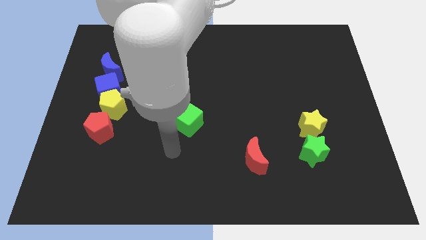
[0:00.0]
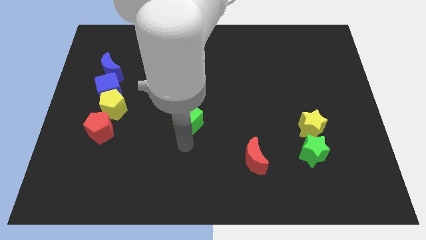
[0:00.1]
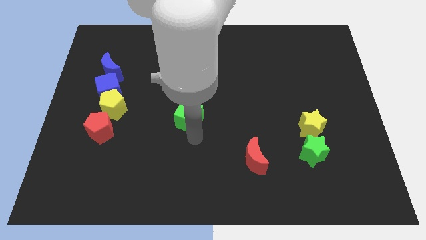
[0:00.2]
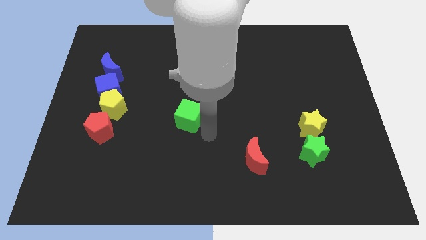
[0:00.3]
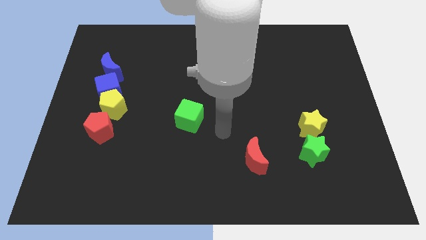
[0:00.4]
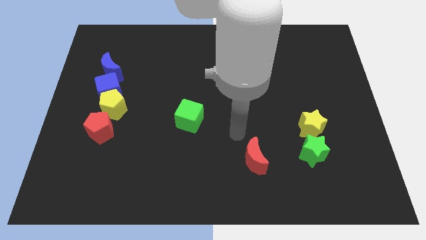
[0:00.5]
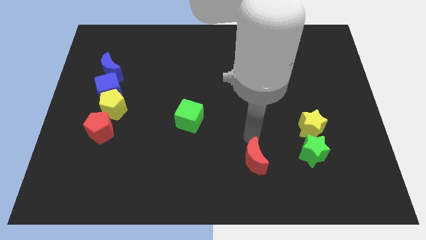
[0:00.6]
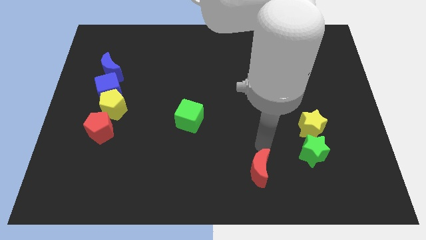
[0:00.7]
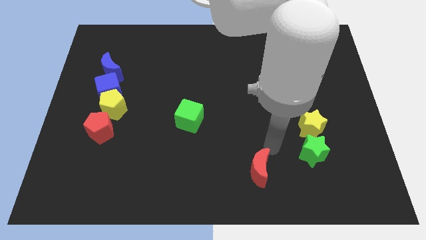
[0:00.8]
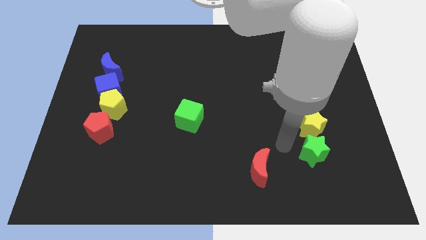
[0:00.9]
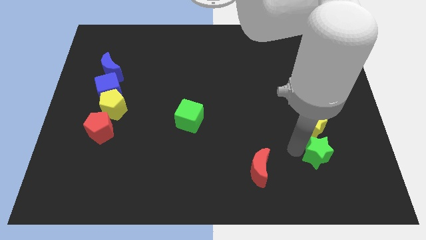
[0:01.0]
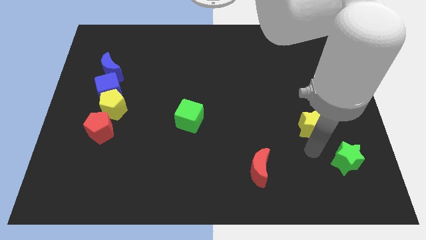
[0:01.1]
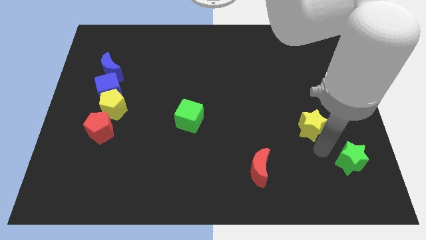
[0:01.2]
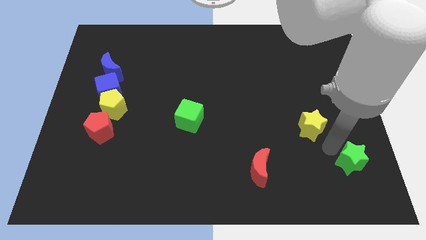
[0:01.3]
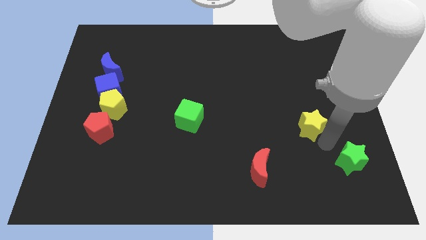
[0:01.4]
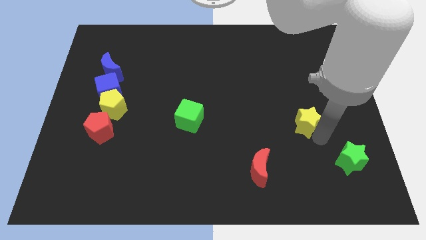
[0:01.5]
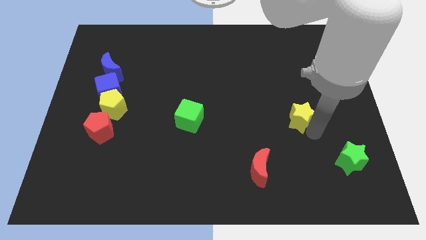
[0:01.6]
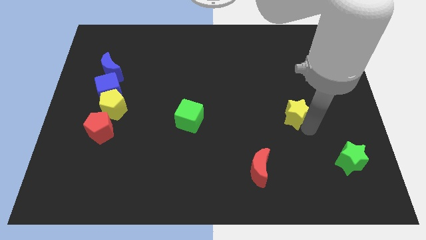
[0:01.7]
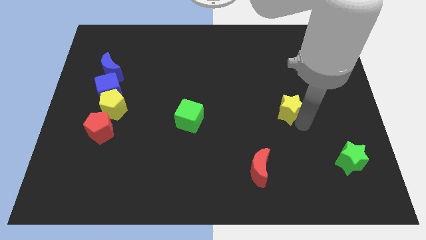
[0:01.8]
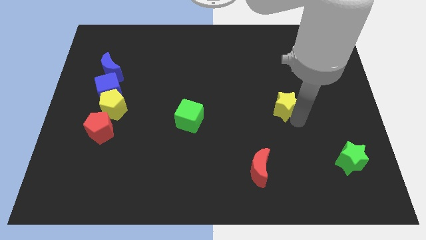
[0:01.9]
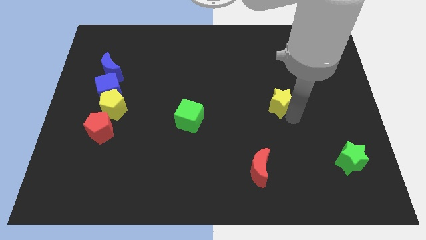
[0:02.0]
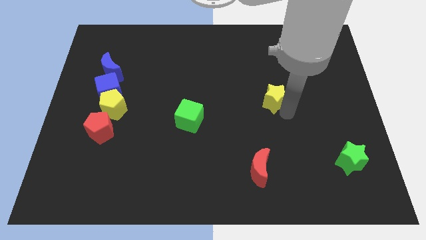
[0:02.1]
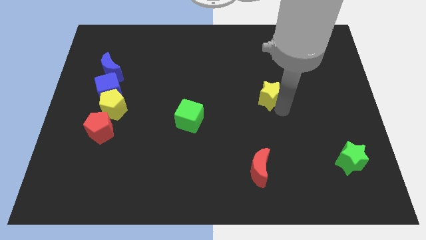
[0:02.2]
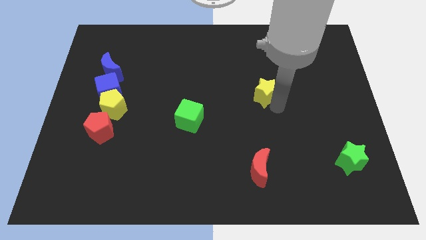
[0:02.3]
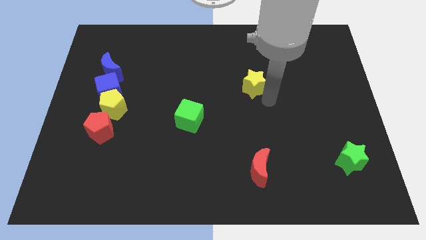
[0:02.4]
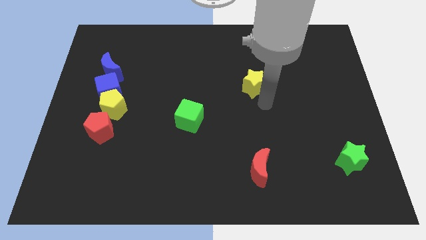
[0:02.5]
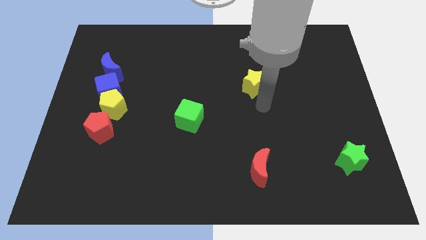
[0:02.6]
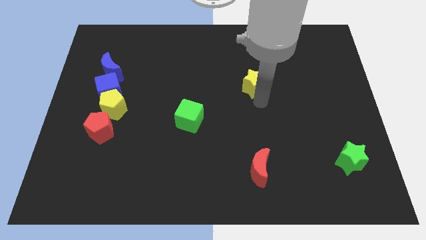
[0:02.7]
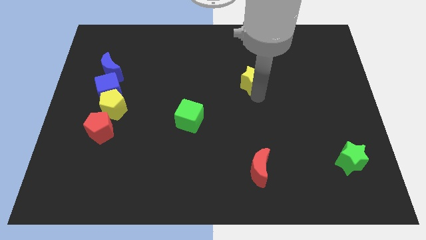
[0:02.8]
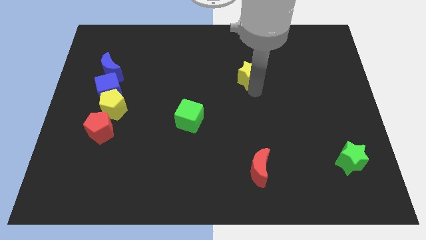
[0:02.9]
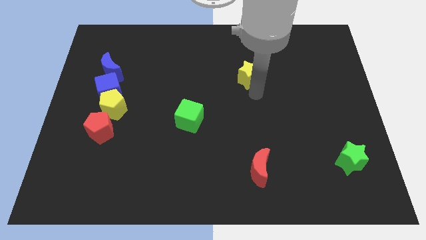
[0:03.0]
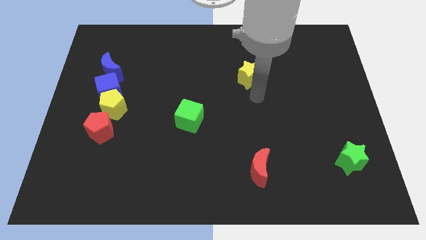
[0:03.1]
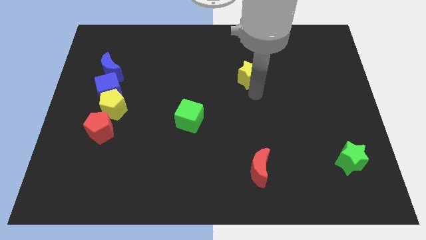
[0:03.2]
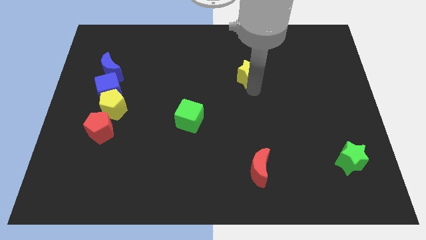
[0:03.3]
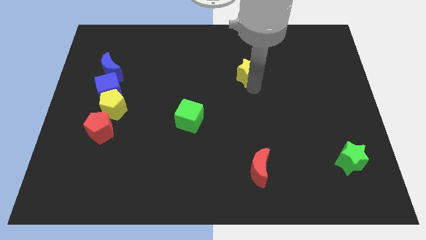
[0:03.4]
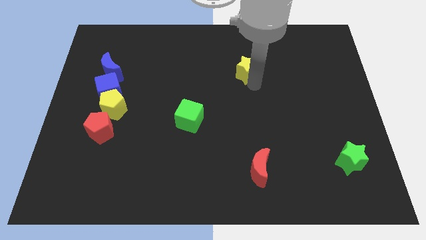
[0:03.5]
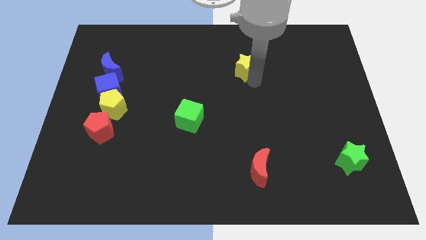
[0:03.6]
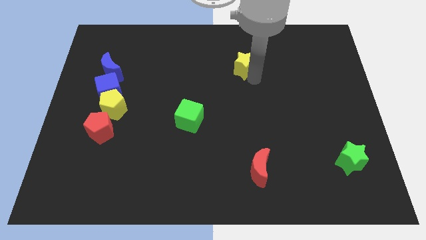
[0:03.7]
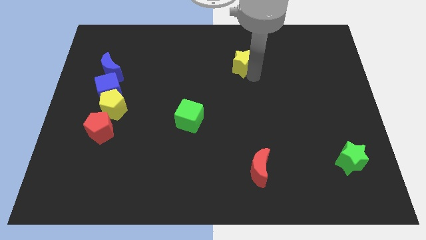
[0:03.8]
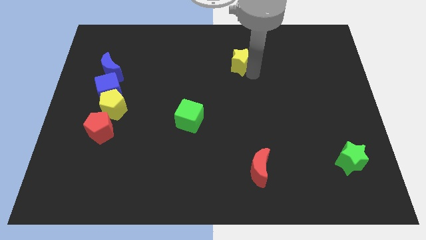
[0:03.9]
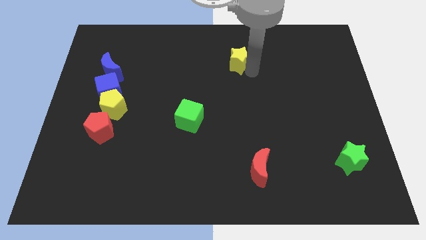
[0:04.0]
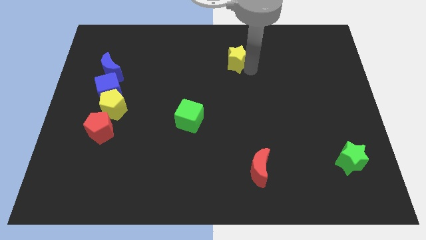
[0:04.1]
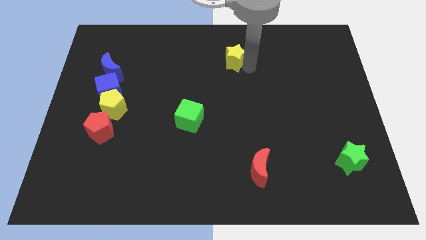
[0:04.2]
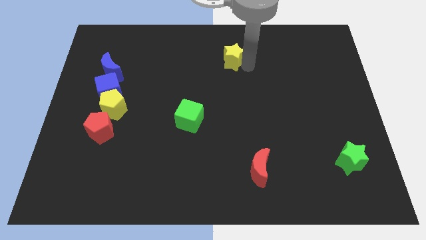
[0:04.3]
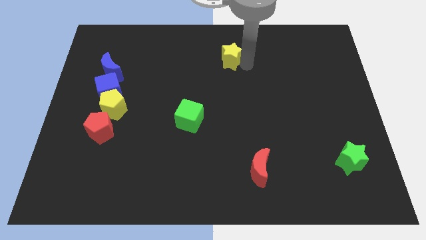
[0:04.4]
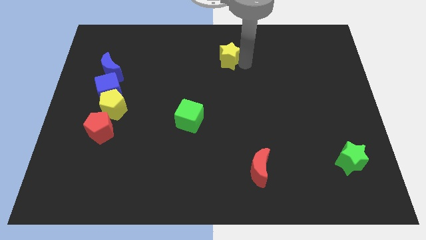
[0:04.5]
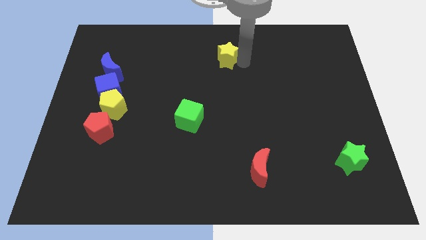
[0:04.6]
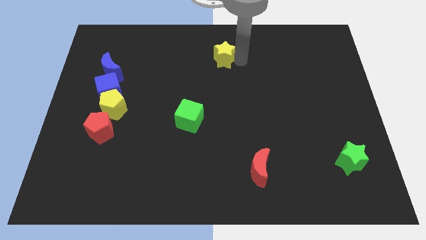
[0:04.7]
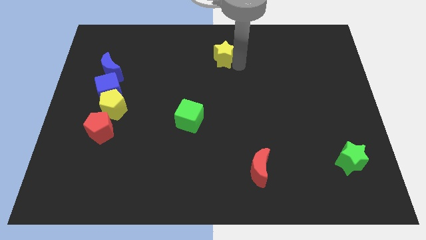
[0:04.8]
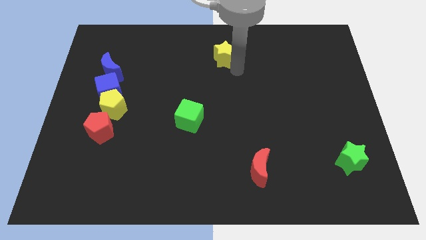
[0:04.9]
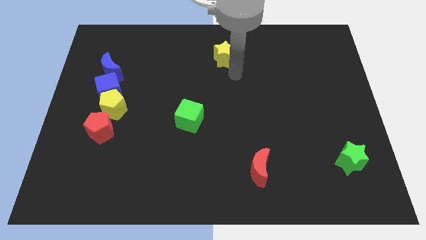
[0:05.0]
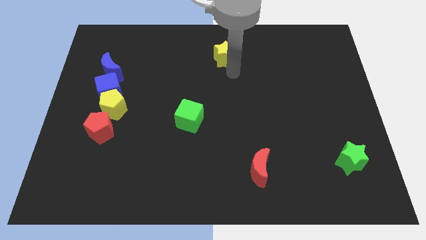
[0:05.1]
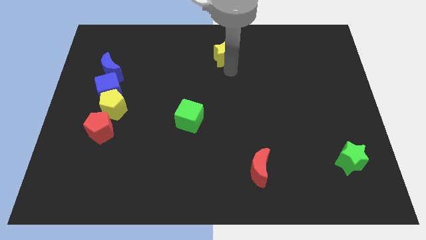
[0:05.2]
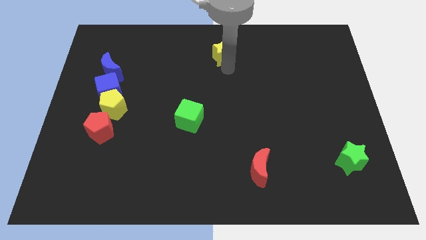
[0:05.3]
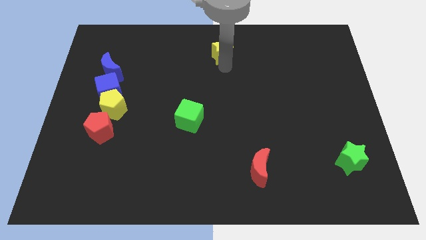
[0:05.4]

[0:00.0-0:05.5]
slide the yellow star to the top
